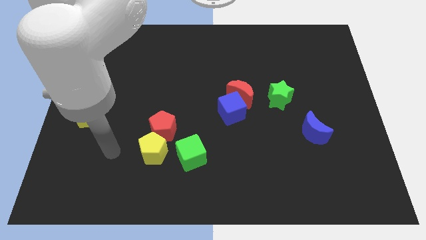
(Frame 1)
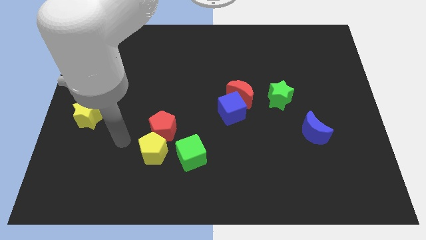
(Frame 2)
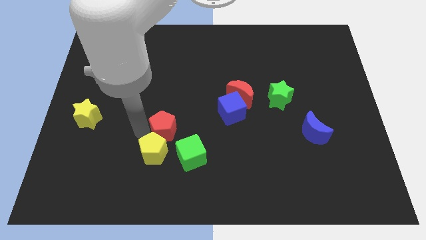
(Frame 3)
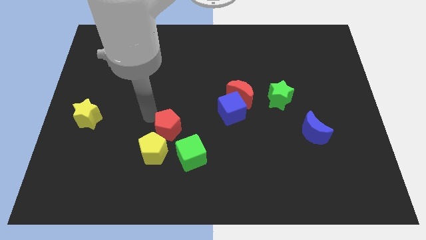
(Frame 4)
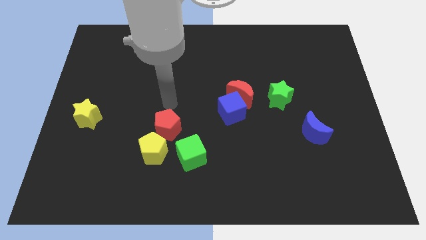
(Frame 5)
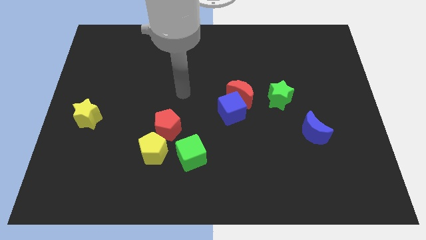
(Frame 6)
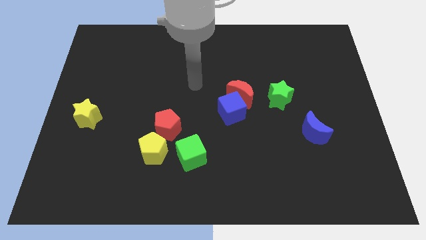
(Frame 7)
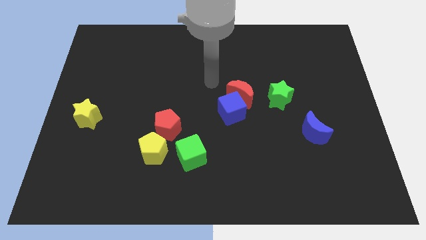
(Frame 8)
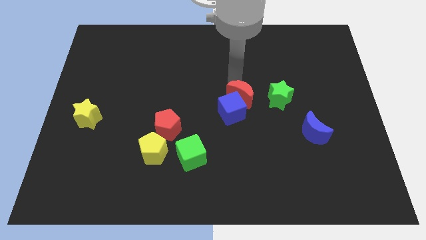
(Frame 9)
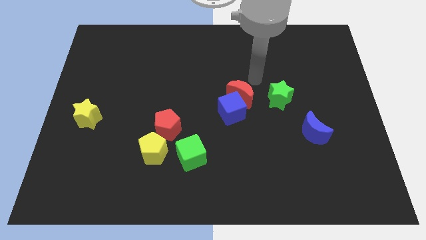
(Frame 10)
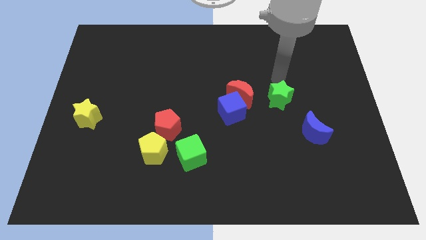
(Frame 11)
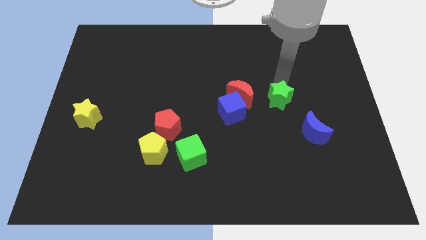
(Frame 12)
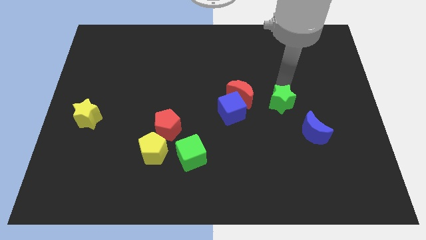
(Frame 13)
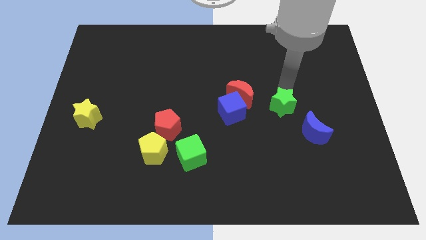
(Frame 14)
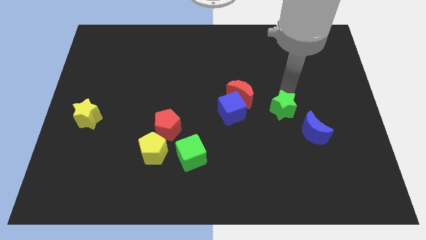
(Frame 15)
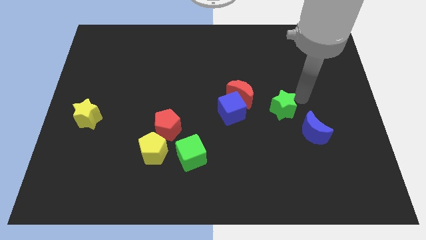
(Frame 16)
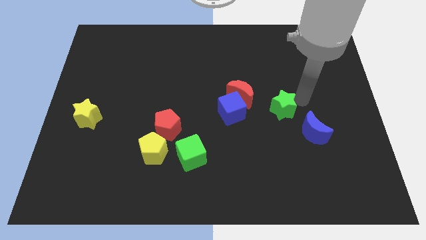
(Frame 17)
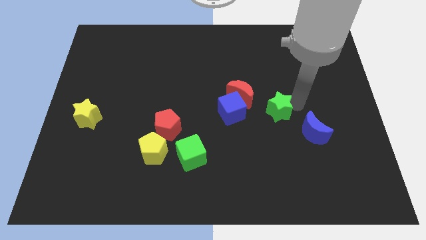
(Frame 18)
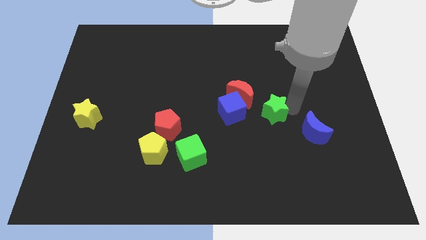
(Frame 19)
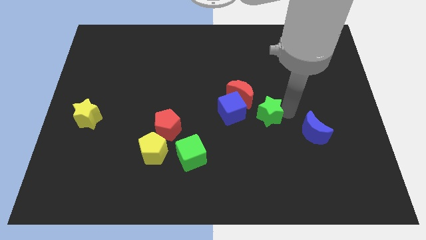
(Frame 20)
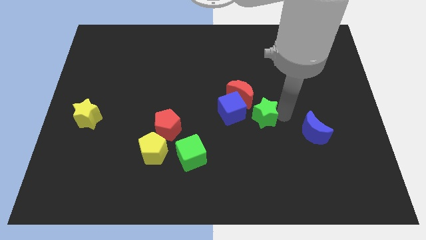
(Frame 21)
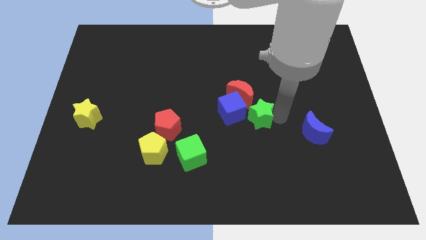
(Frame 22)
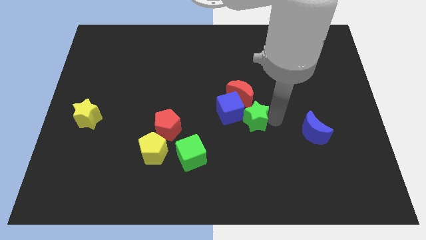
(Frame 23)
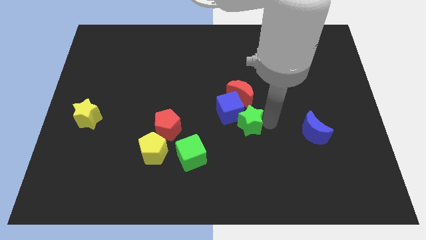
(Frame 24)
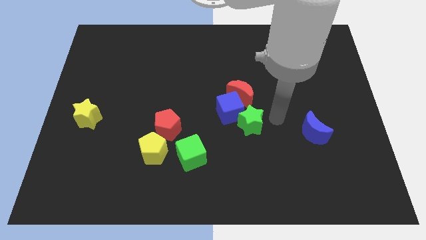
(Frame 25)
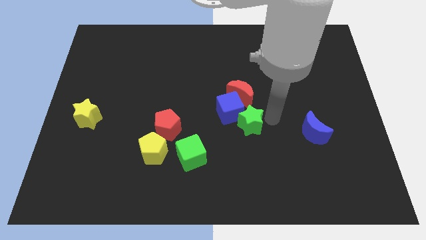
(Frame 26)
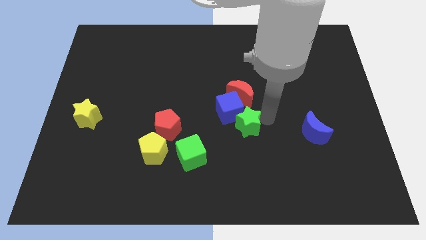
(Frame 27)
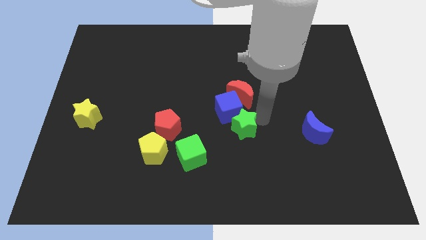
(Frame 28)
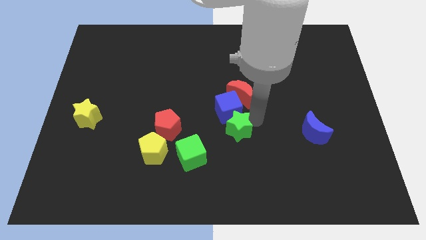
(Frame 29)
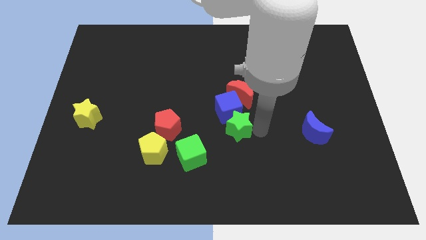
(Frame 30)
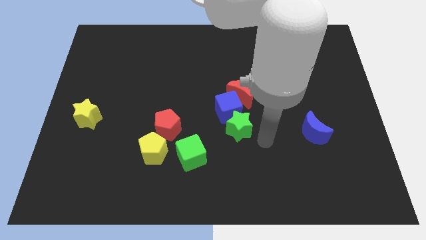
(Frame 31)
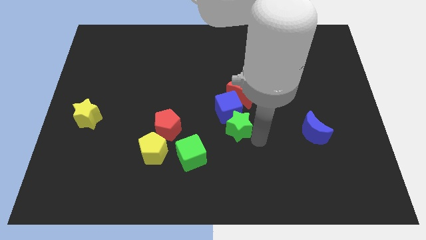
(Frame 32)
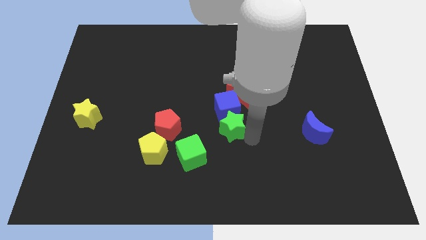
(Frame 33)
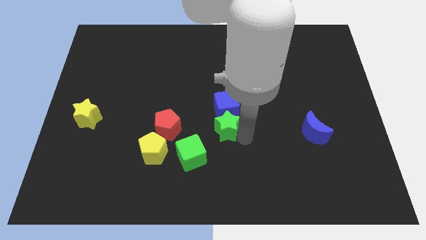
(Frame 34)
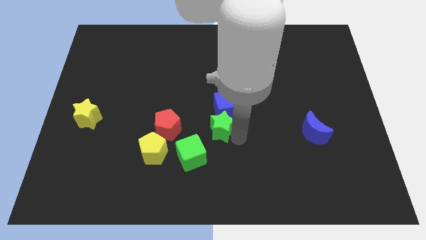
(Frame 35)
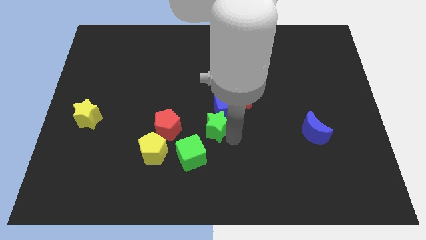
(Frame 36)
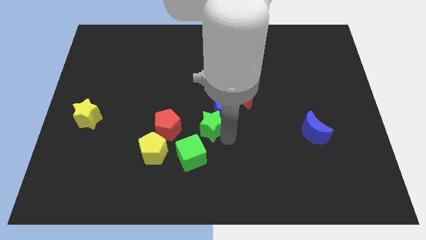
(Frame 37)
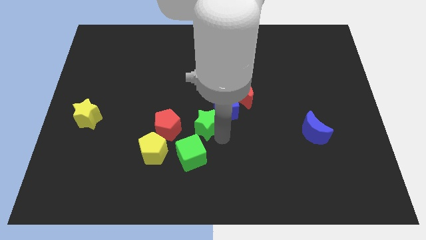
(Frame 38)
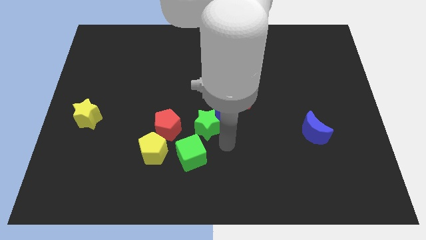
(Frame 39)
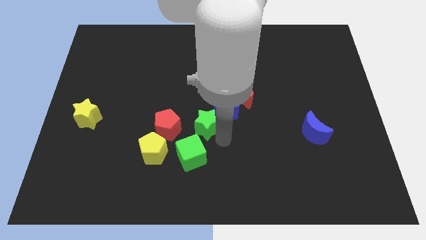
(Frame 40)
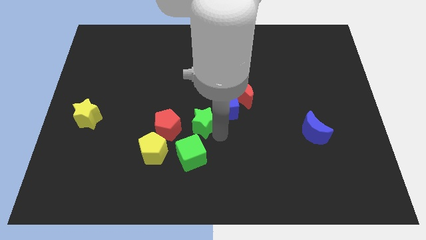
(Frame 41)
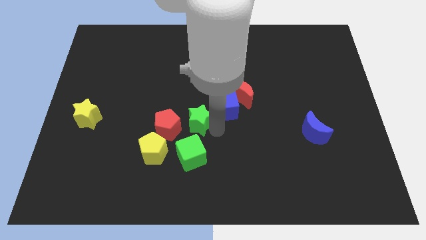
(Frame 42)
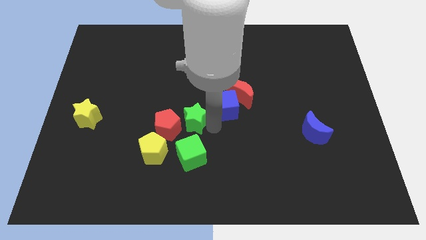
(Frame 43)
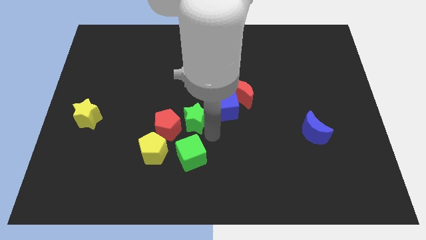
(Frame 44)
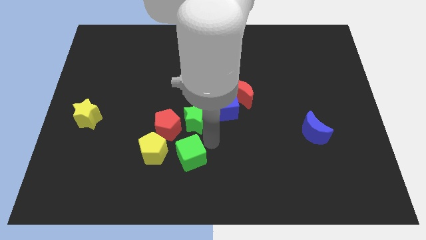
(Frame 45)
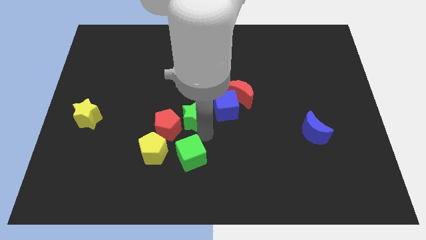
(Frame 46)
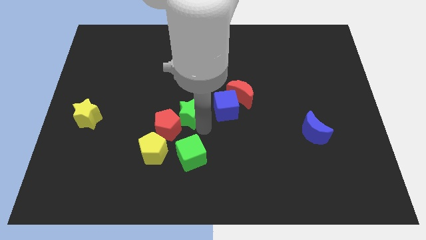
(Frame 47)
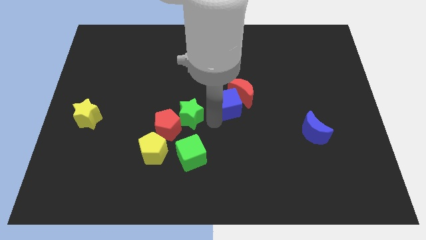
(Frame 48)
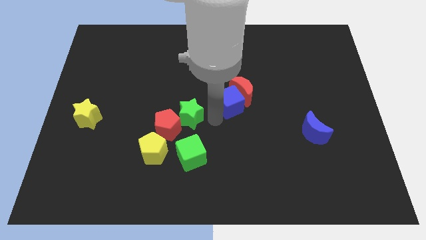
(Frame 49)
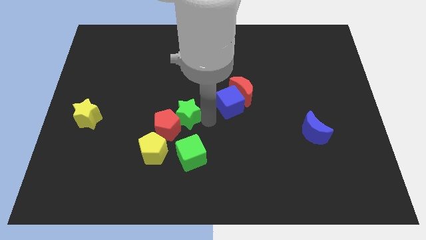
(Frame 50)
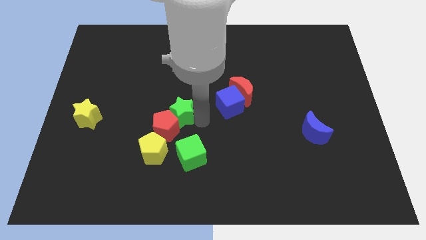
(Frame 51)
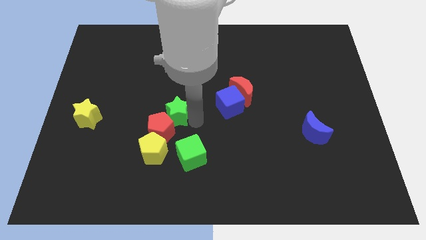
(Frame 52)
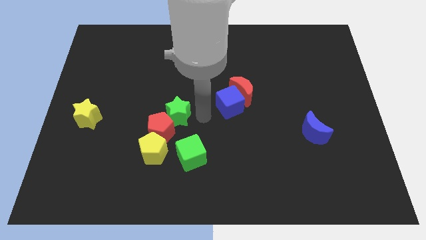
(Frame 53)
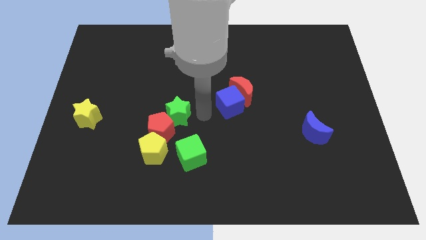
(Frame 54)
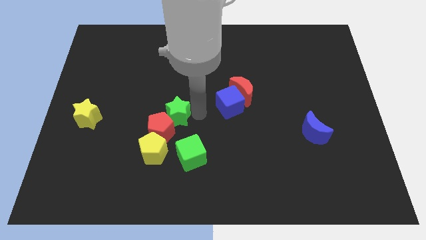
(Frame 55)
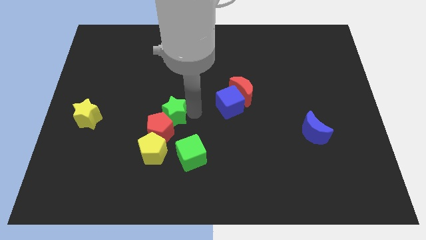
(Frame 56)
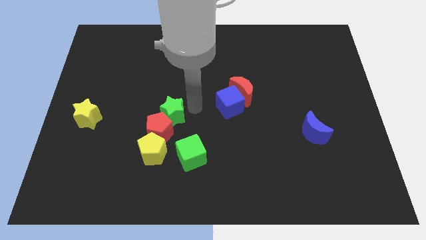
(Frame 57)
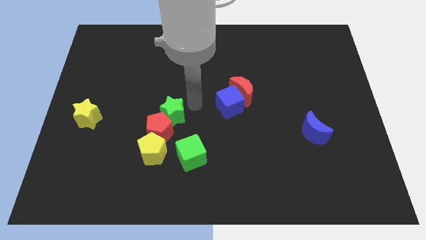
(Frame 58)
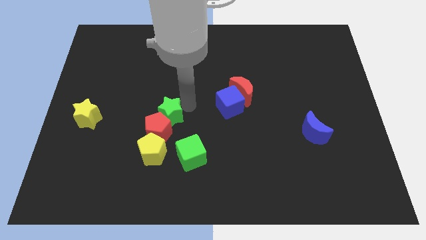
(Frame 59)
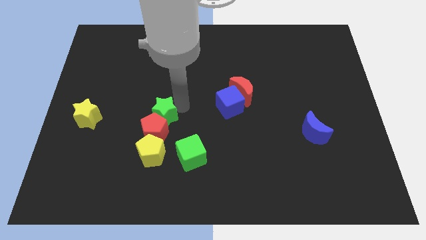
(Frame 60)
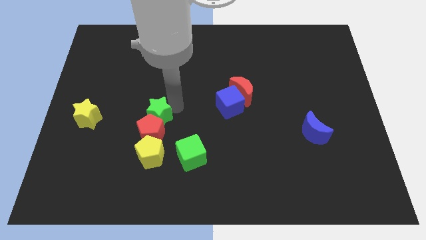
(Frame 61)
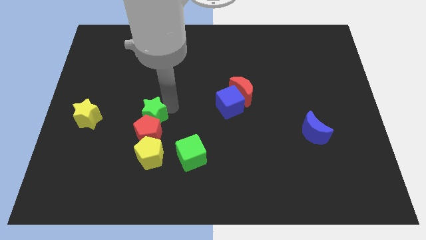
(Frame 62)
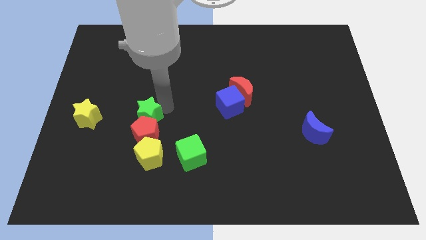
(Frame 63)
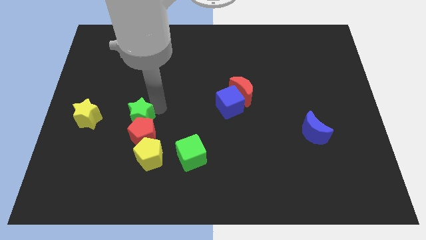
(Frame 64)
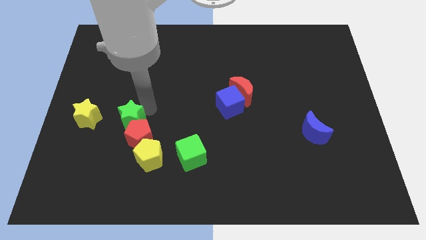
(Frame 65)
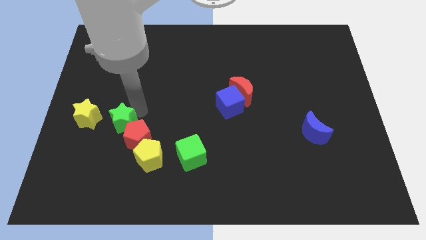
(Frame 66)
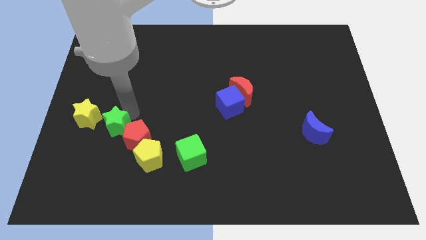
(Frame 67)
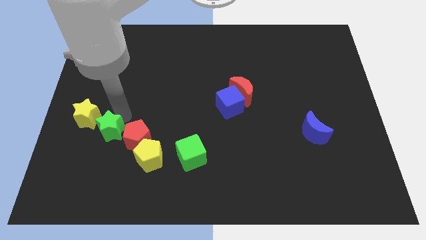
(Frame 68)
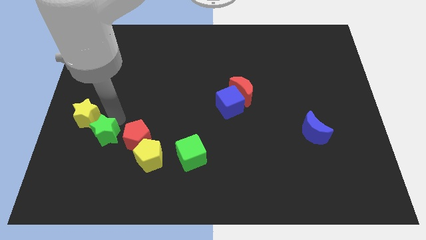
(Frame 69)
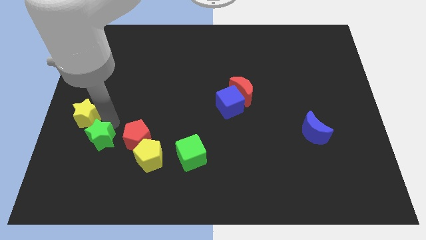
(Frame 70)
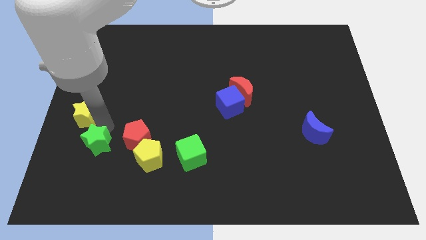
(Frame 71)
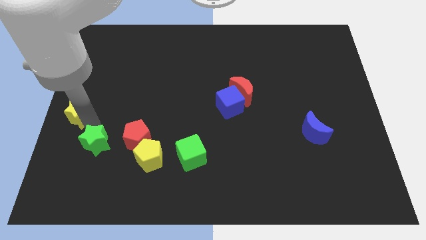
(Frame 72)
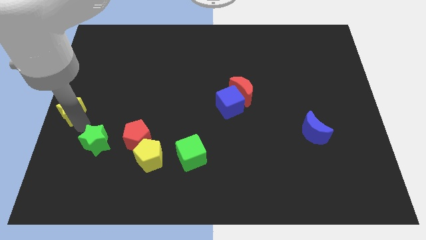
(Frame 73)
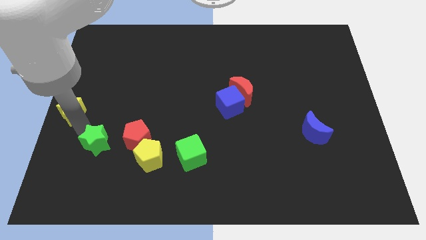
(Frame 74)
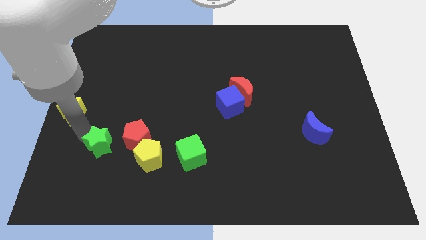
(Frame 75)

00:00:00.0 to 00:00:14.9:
move the green star to the bottom left of the red pentagon
